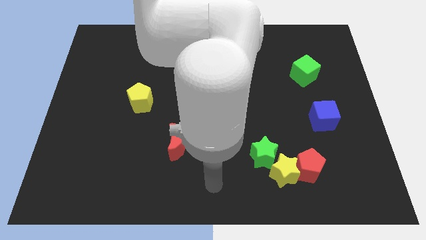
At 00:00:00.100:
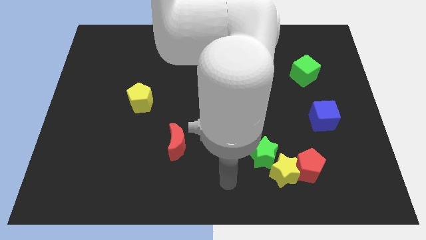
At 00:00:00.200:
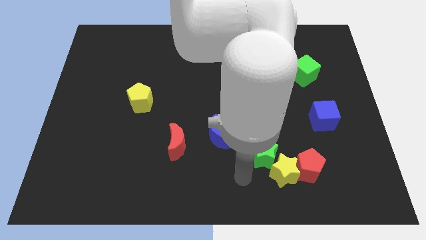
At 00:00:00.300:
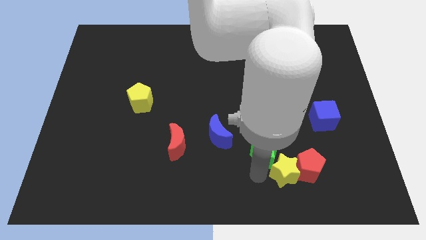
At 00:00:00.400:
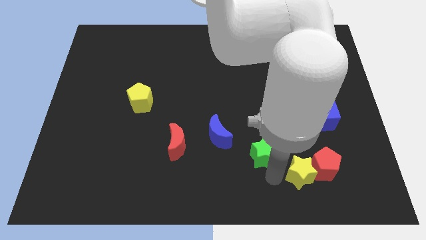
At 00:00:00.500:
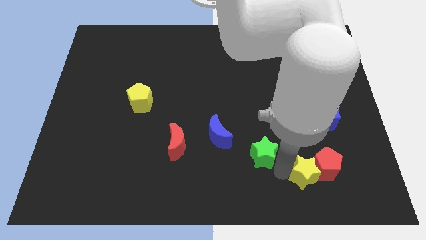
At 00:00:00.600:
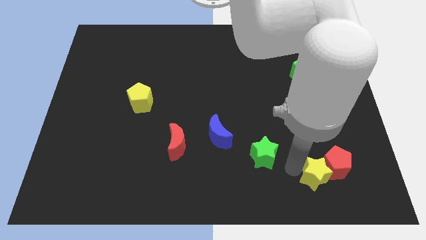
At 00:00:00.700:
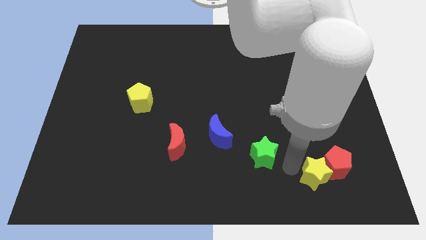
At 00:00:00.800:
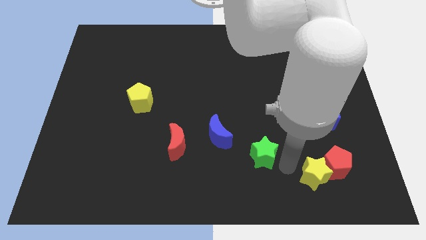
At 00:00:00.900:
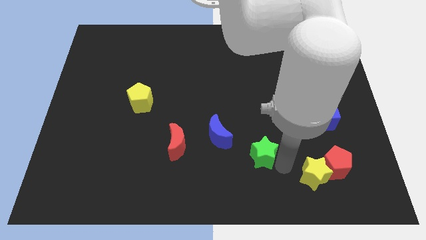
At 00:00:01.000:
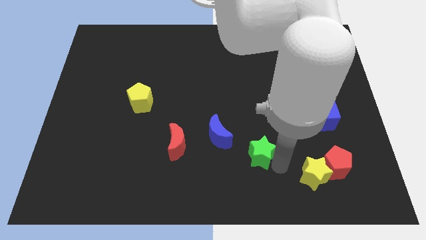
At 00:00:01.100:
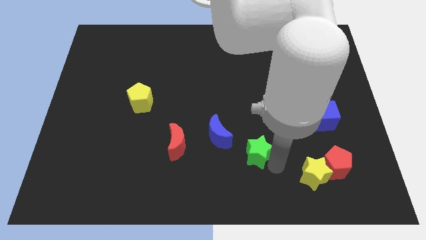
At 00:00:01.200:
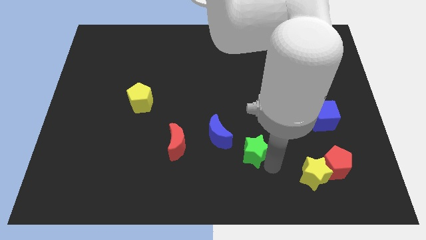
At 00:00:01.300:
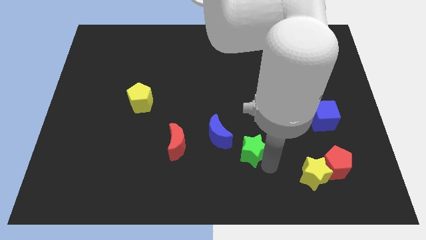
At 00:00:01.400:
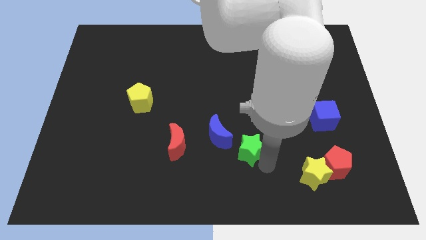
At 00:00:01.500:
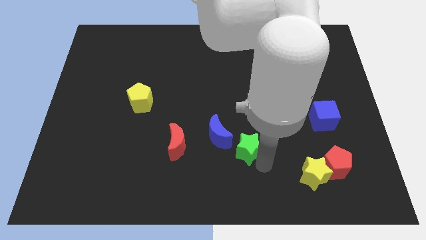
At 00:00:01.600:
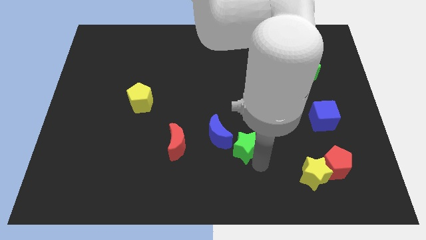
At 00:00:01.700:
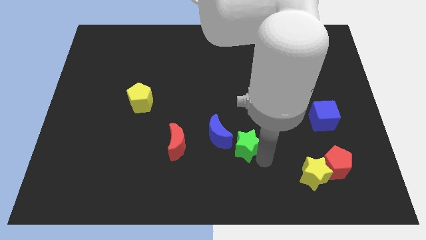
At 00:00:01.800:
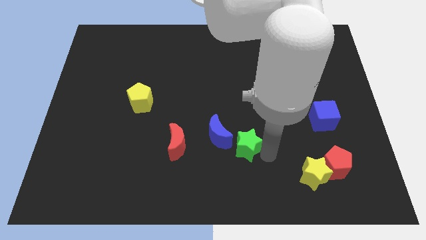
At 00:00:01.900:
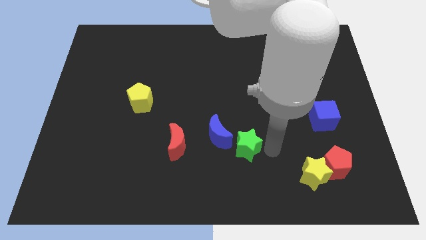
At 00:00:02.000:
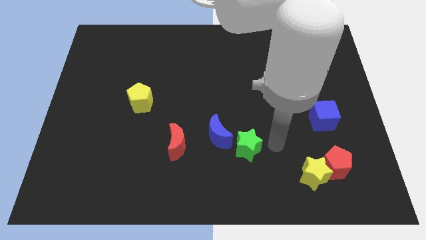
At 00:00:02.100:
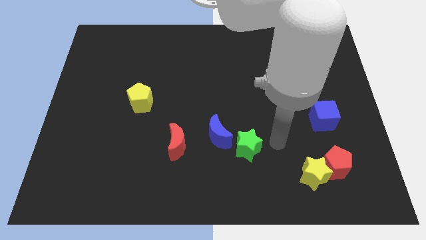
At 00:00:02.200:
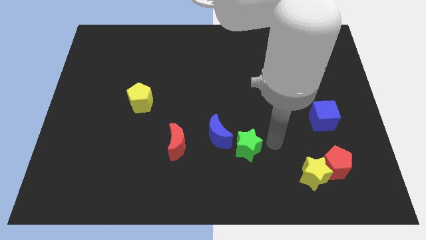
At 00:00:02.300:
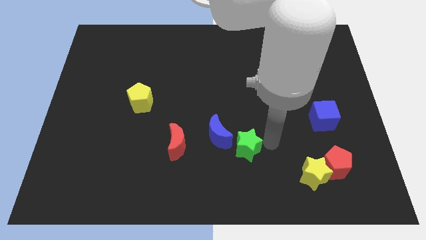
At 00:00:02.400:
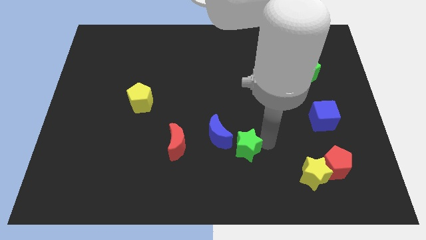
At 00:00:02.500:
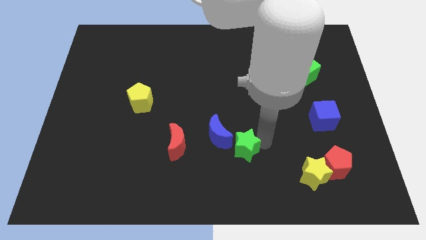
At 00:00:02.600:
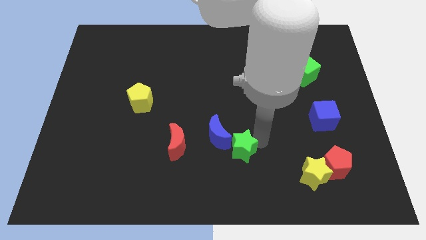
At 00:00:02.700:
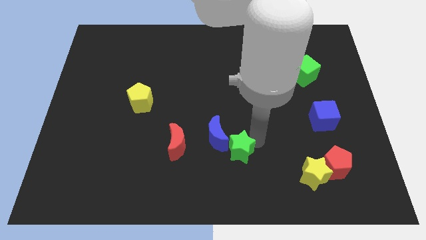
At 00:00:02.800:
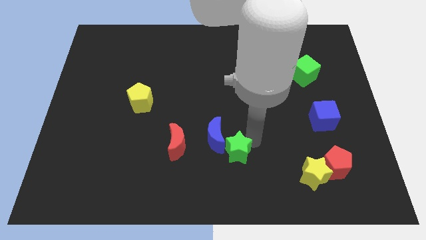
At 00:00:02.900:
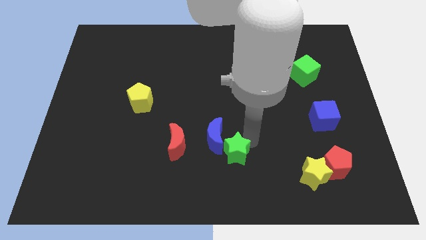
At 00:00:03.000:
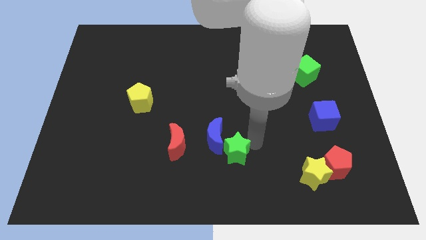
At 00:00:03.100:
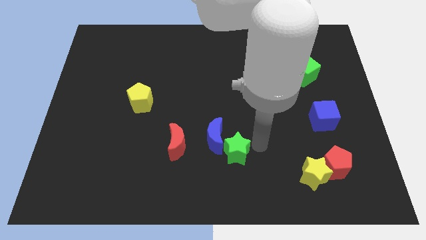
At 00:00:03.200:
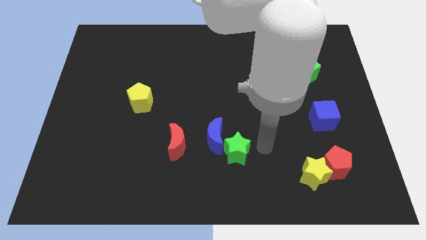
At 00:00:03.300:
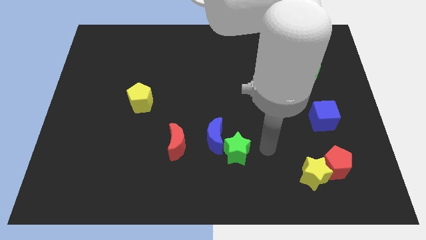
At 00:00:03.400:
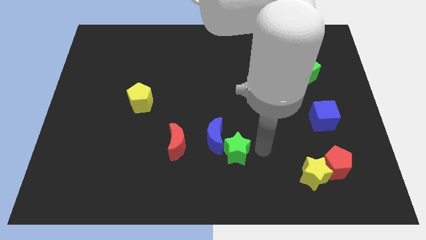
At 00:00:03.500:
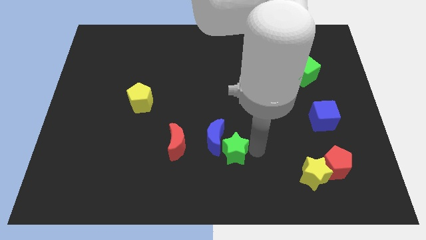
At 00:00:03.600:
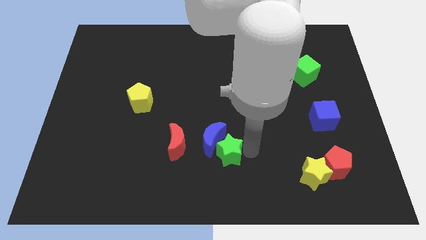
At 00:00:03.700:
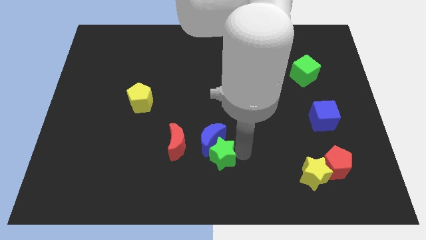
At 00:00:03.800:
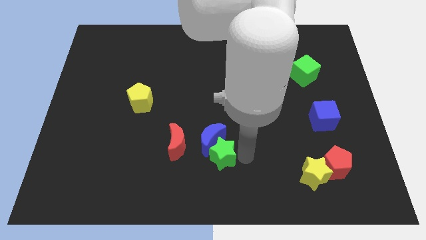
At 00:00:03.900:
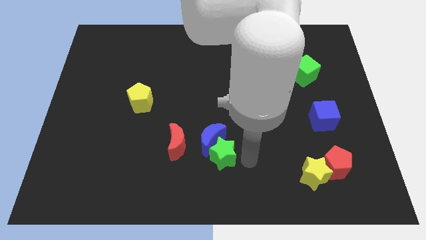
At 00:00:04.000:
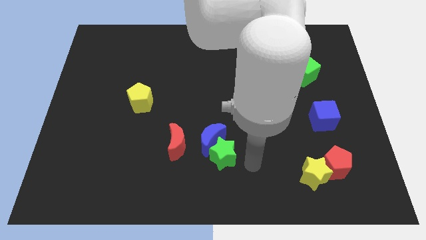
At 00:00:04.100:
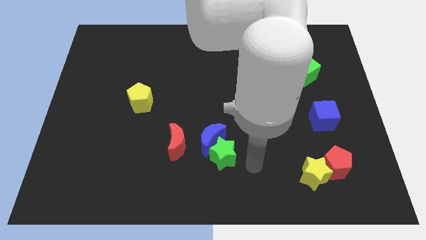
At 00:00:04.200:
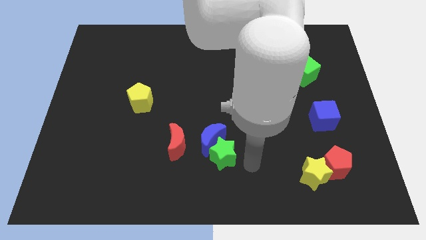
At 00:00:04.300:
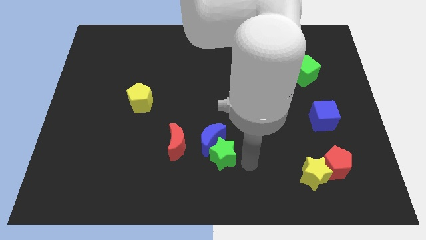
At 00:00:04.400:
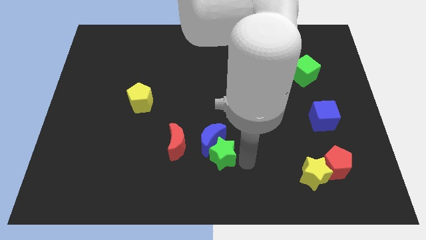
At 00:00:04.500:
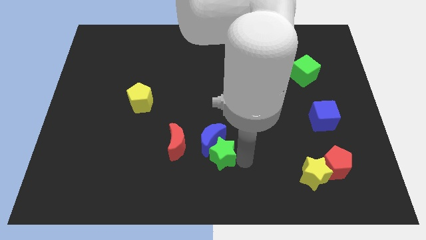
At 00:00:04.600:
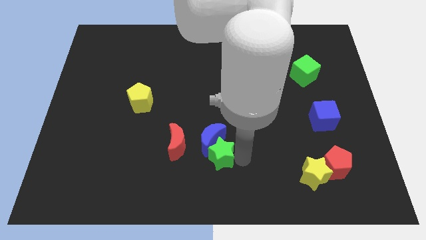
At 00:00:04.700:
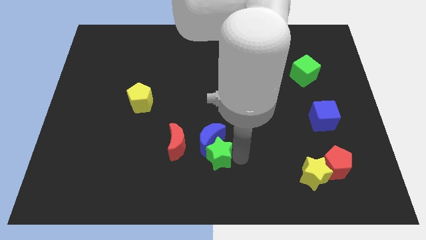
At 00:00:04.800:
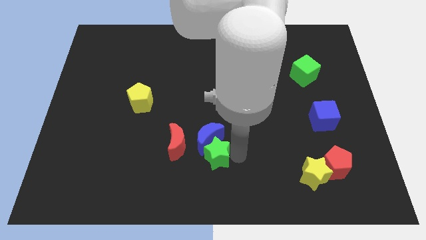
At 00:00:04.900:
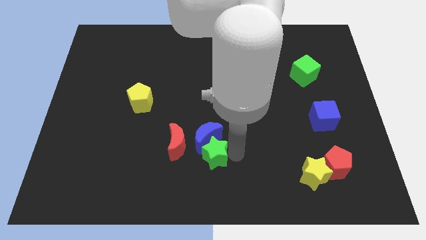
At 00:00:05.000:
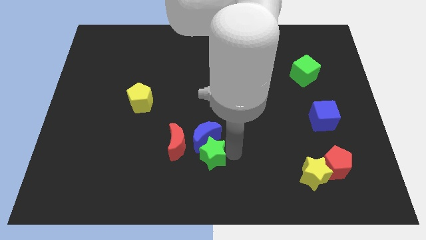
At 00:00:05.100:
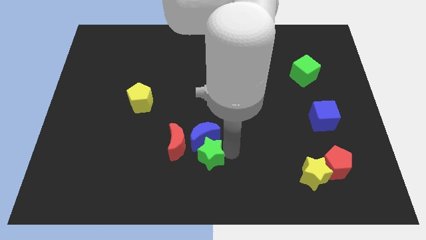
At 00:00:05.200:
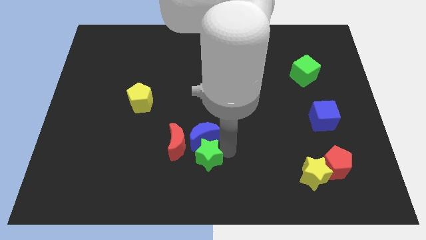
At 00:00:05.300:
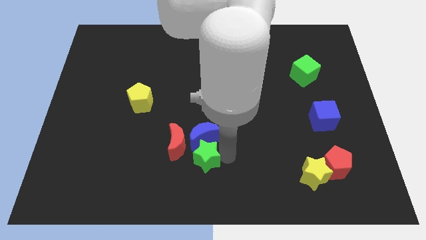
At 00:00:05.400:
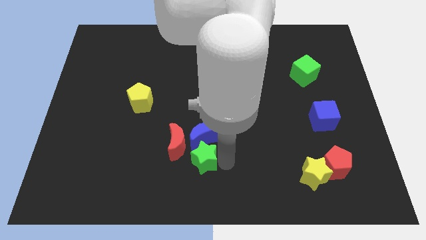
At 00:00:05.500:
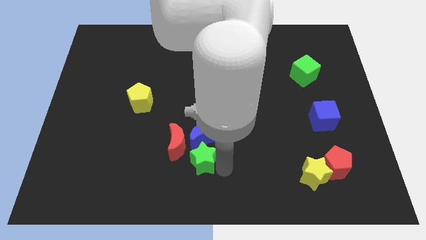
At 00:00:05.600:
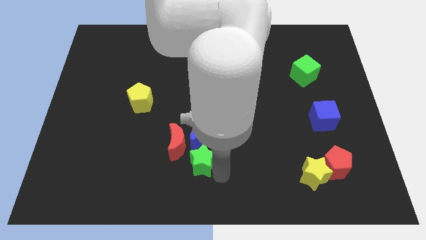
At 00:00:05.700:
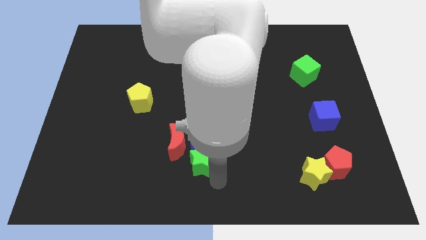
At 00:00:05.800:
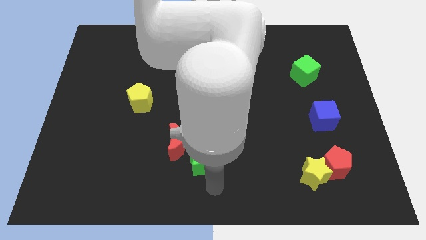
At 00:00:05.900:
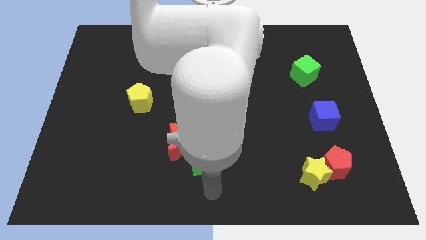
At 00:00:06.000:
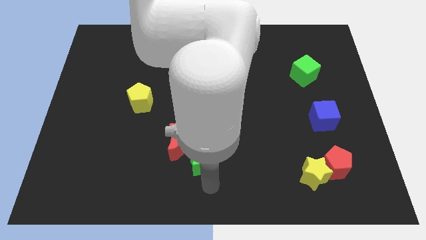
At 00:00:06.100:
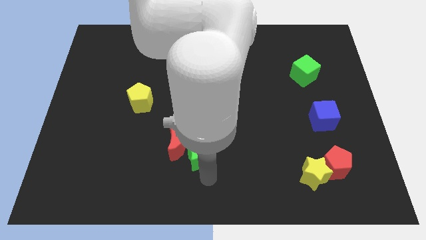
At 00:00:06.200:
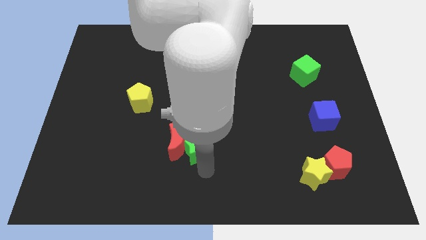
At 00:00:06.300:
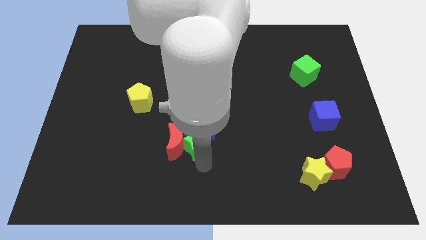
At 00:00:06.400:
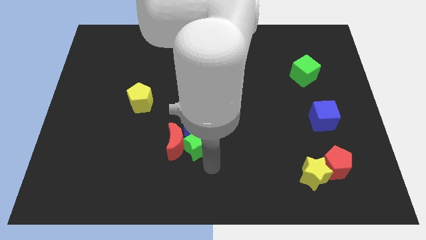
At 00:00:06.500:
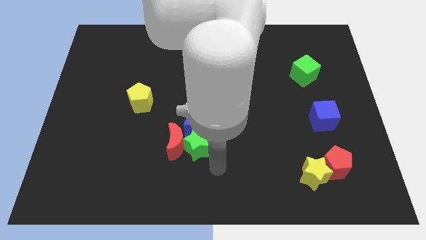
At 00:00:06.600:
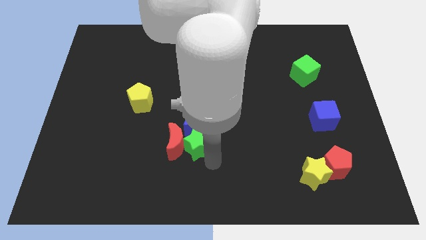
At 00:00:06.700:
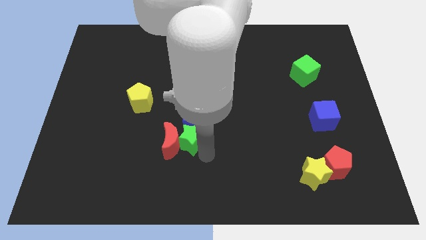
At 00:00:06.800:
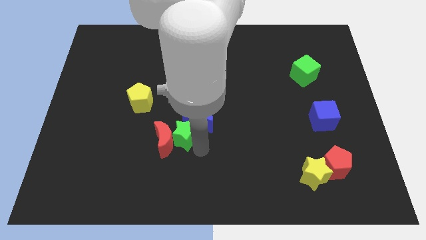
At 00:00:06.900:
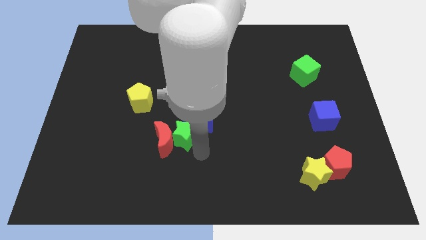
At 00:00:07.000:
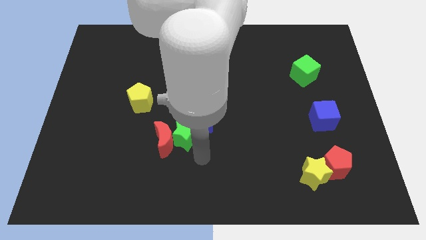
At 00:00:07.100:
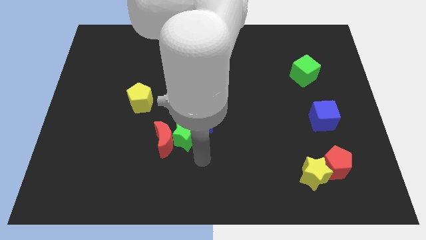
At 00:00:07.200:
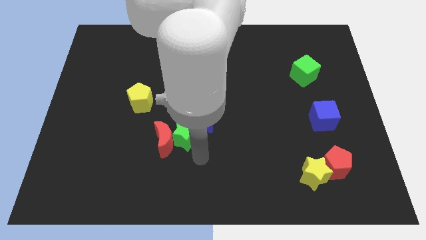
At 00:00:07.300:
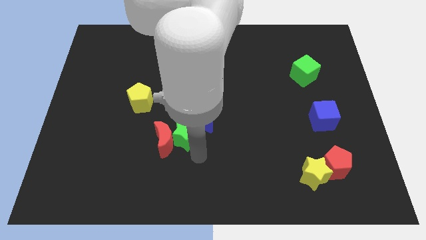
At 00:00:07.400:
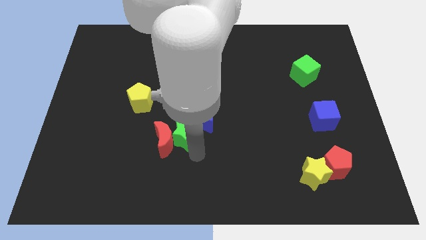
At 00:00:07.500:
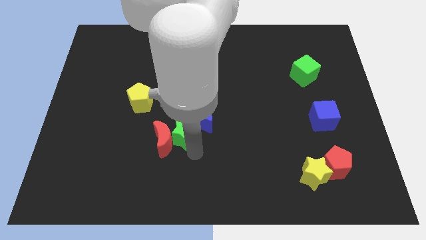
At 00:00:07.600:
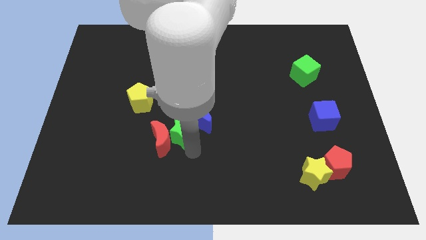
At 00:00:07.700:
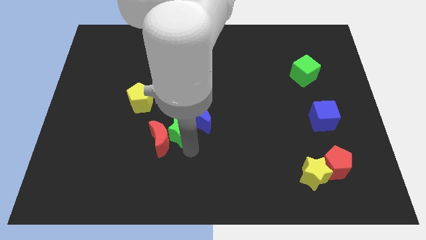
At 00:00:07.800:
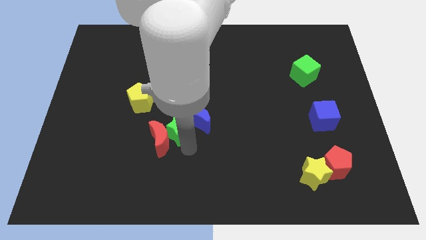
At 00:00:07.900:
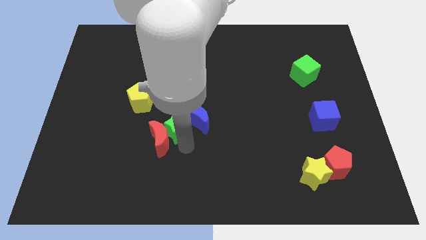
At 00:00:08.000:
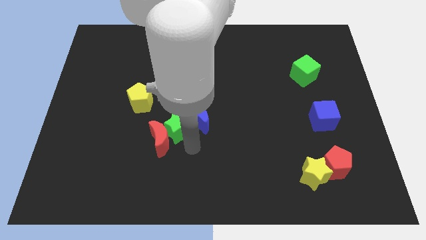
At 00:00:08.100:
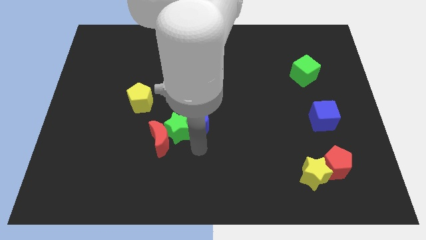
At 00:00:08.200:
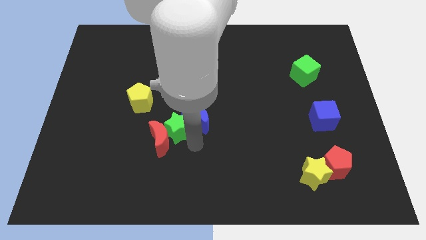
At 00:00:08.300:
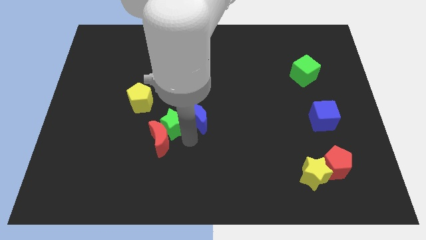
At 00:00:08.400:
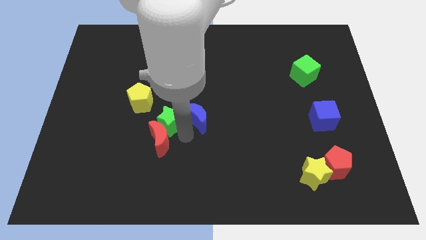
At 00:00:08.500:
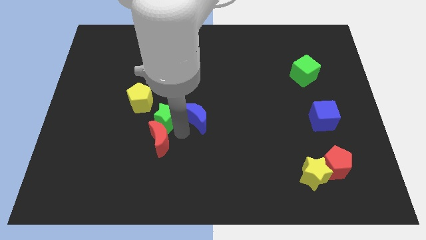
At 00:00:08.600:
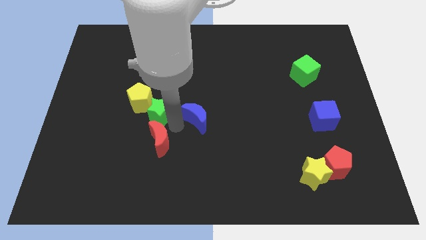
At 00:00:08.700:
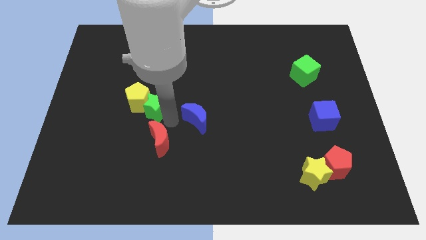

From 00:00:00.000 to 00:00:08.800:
put the green star next to the yellow pentagon
